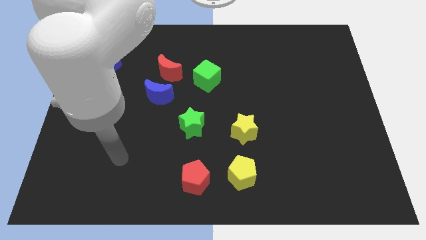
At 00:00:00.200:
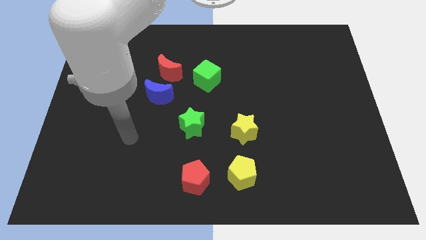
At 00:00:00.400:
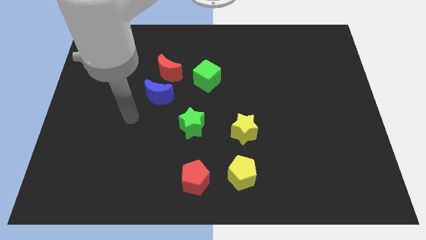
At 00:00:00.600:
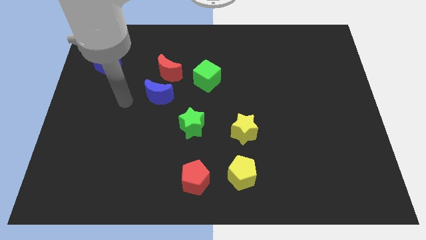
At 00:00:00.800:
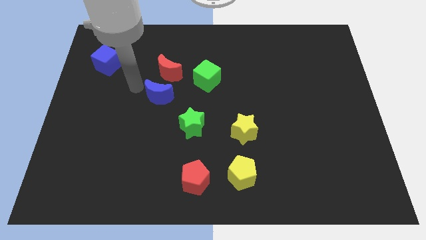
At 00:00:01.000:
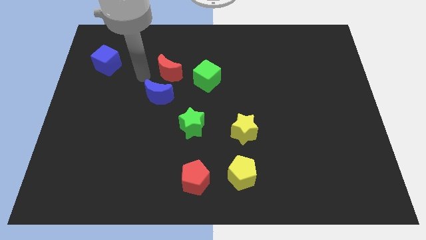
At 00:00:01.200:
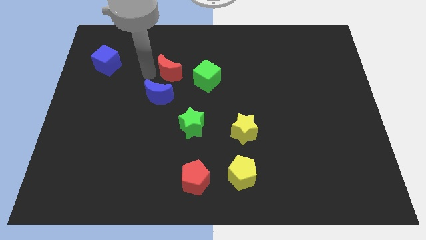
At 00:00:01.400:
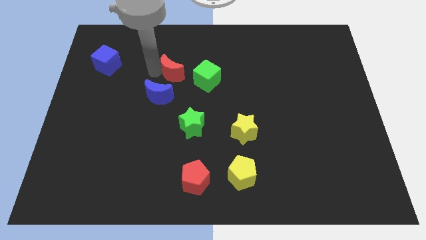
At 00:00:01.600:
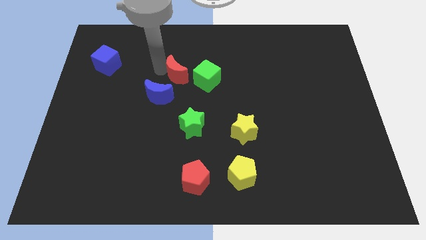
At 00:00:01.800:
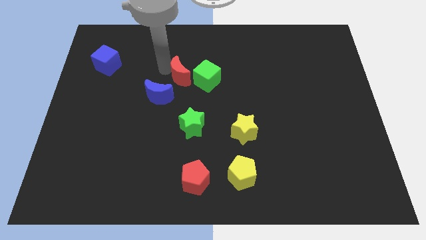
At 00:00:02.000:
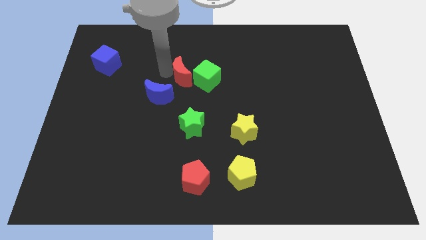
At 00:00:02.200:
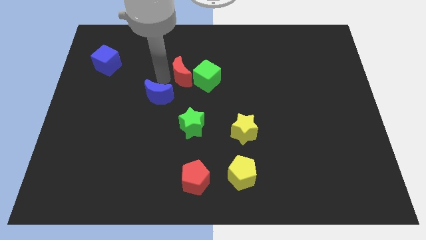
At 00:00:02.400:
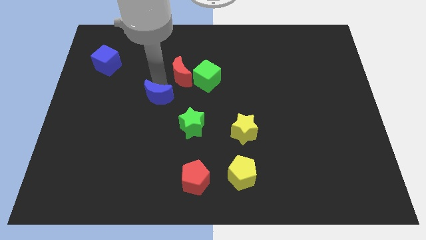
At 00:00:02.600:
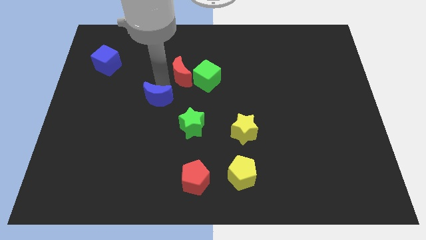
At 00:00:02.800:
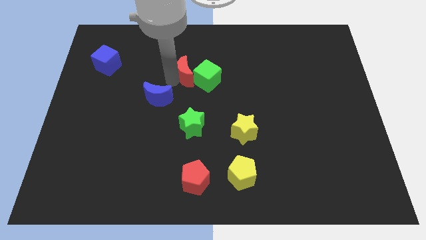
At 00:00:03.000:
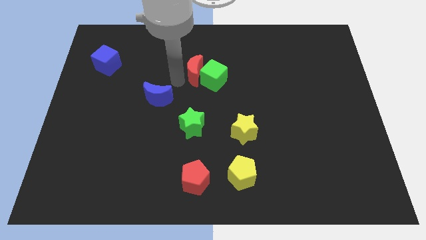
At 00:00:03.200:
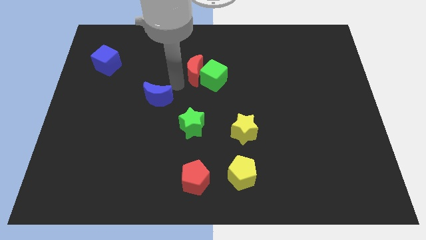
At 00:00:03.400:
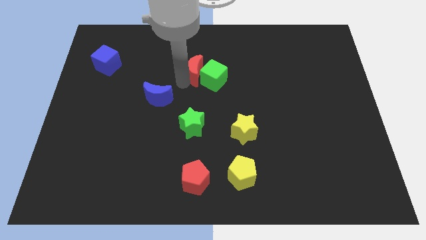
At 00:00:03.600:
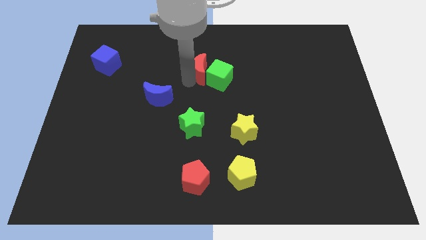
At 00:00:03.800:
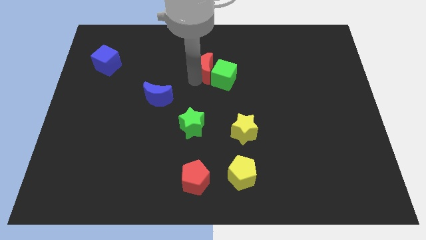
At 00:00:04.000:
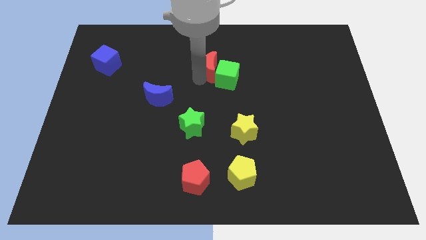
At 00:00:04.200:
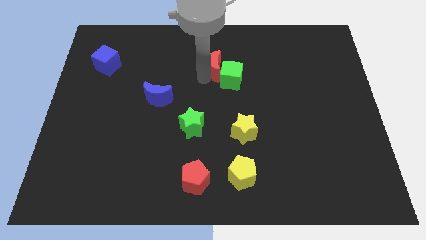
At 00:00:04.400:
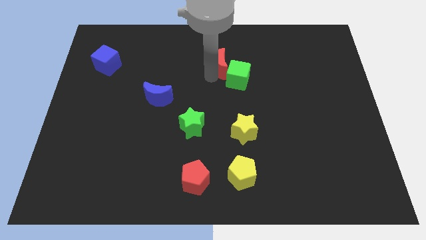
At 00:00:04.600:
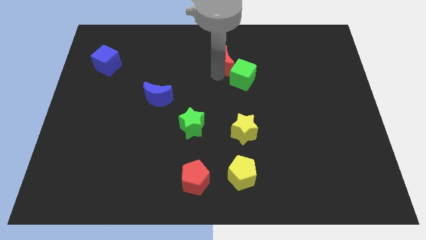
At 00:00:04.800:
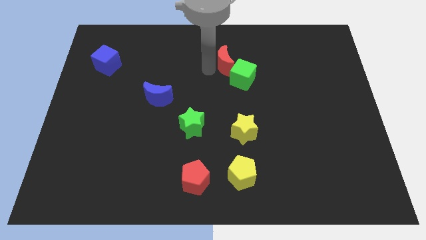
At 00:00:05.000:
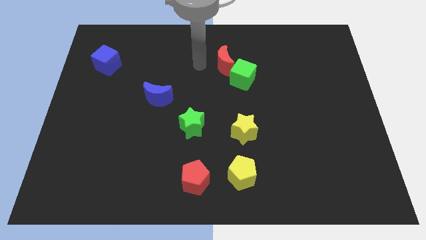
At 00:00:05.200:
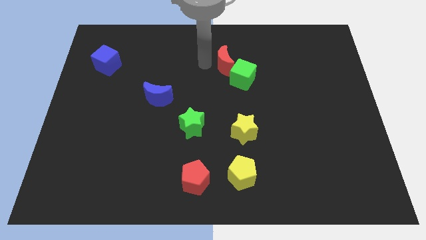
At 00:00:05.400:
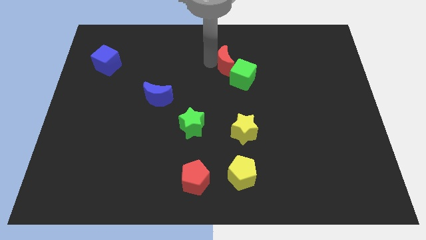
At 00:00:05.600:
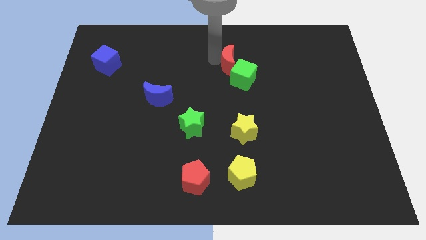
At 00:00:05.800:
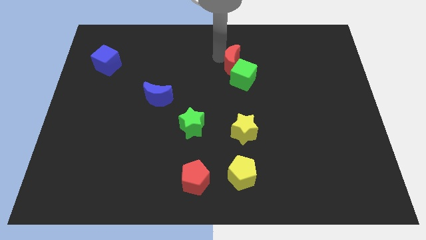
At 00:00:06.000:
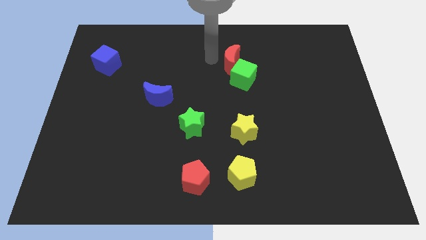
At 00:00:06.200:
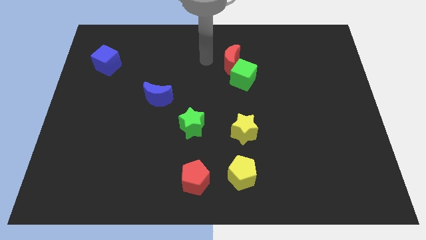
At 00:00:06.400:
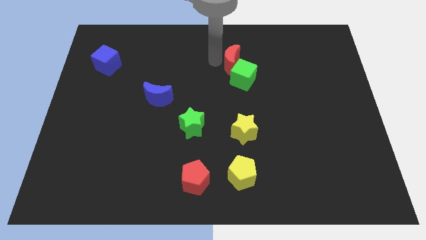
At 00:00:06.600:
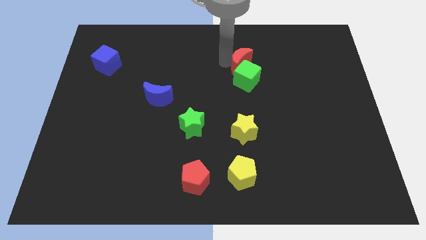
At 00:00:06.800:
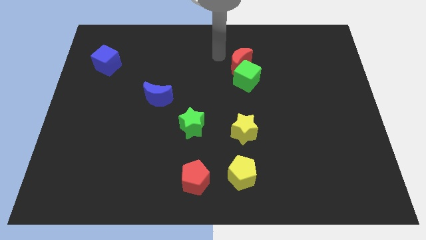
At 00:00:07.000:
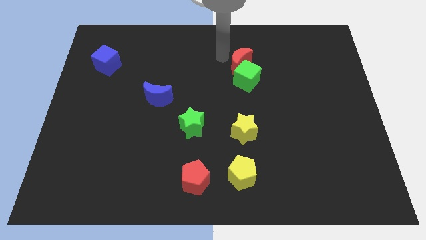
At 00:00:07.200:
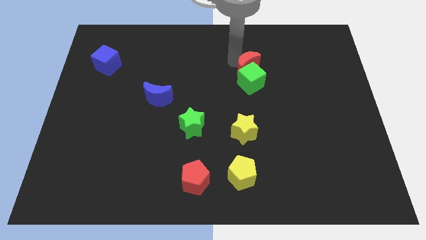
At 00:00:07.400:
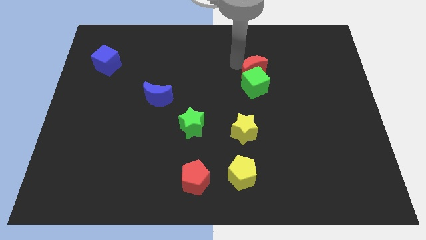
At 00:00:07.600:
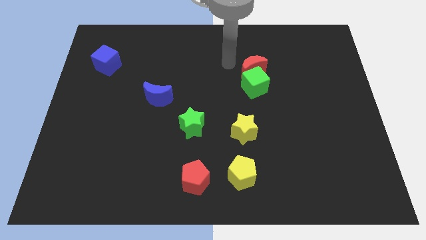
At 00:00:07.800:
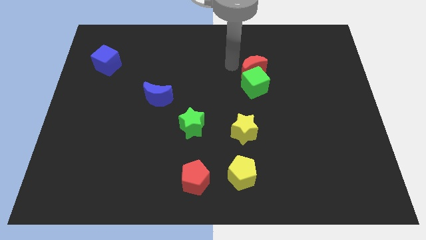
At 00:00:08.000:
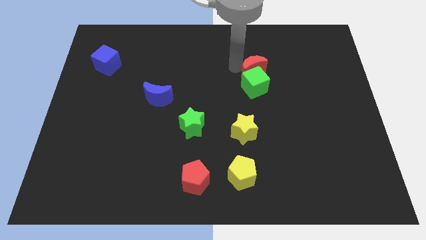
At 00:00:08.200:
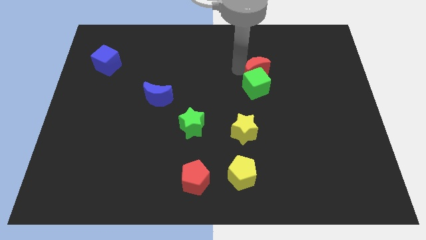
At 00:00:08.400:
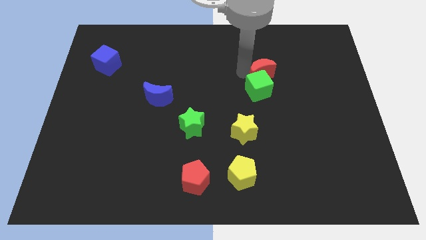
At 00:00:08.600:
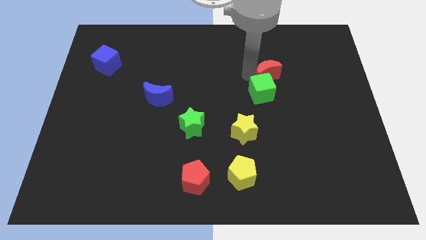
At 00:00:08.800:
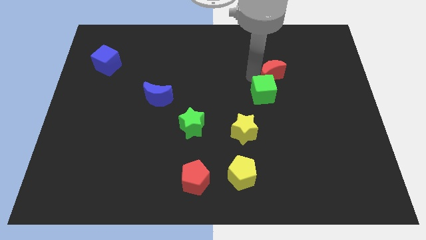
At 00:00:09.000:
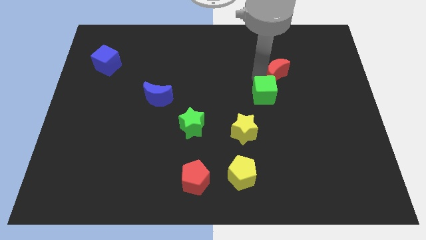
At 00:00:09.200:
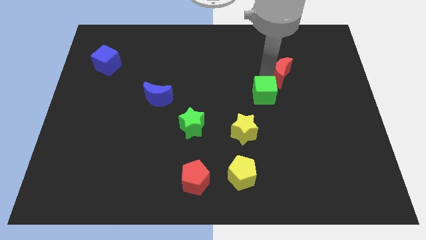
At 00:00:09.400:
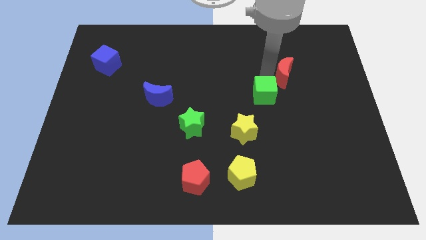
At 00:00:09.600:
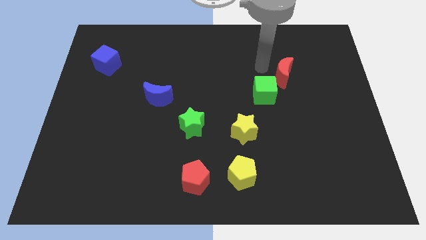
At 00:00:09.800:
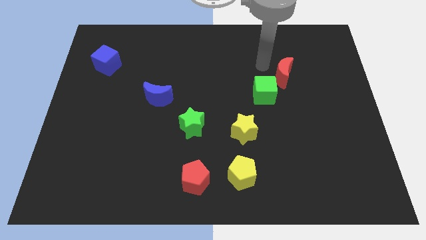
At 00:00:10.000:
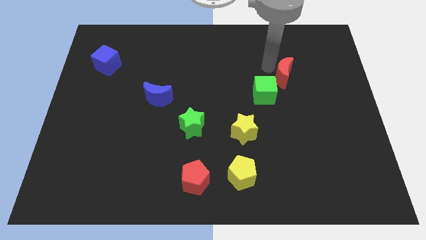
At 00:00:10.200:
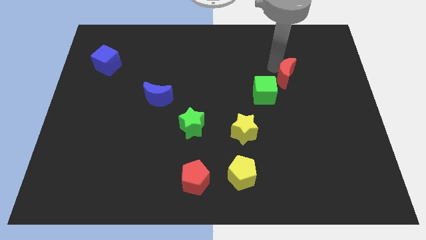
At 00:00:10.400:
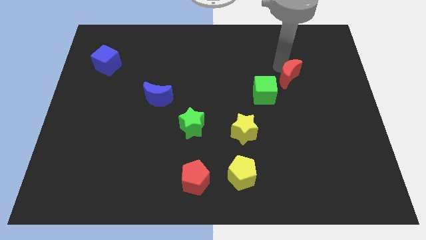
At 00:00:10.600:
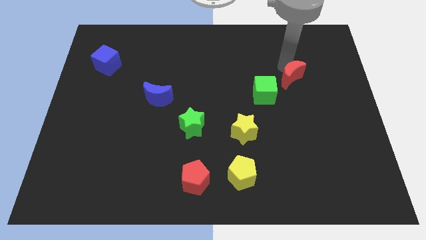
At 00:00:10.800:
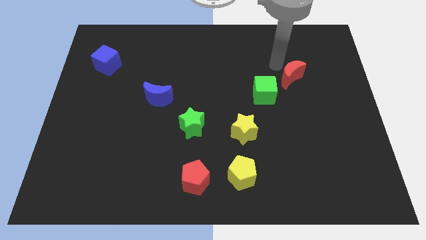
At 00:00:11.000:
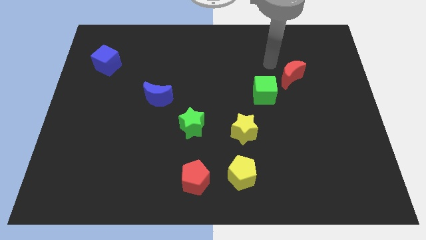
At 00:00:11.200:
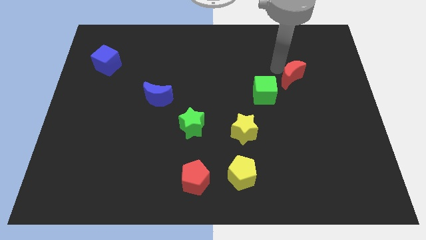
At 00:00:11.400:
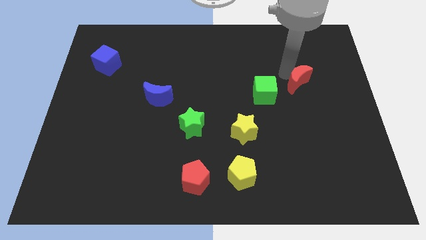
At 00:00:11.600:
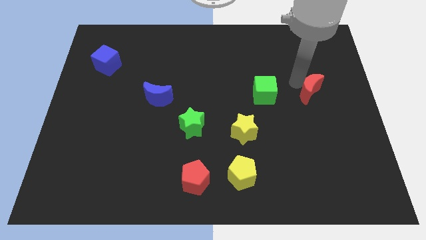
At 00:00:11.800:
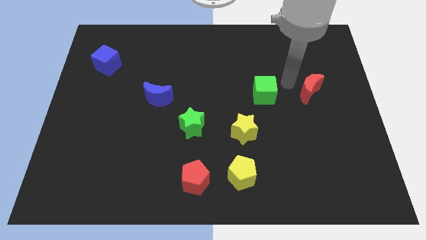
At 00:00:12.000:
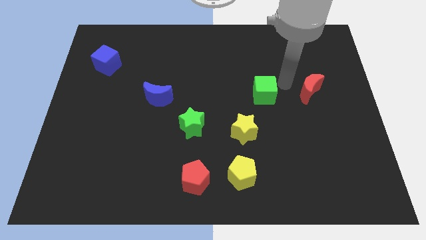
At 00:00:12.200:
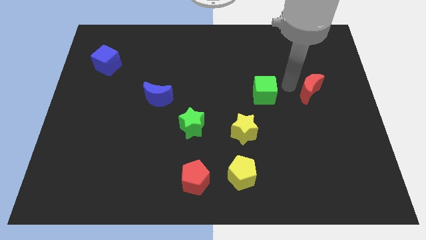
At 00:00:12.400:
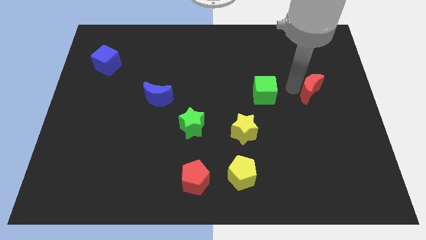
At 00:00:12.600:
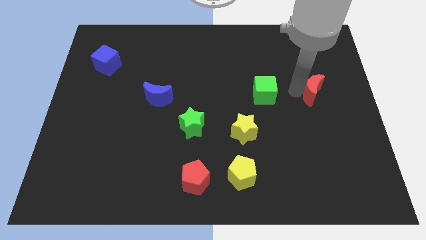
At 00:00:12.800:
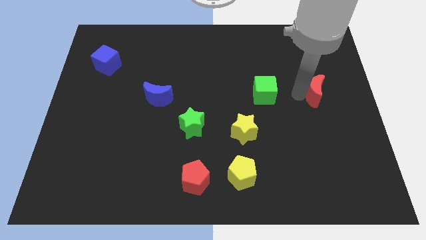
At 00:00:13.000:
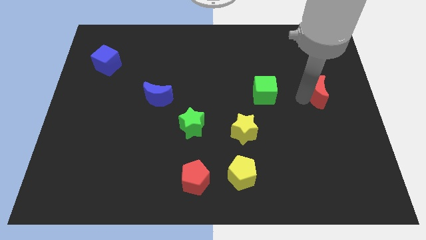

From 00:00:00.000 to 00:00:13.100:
put the red moon to the center right

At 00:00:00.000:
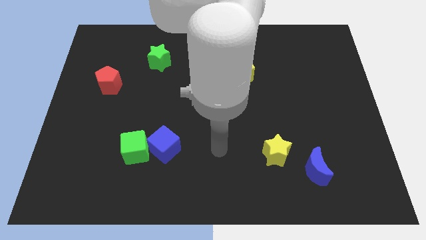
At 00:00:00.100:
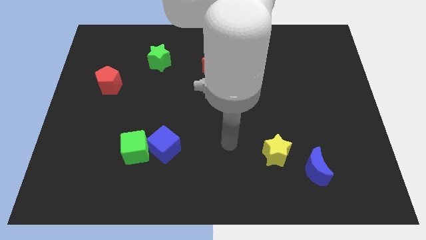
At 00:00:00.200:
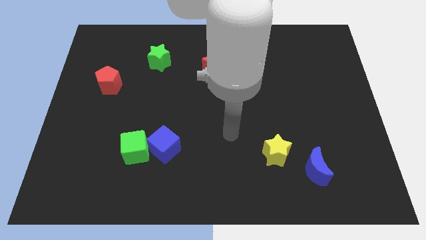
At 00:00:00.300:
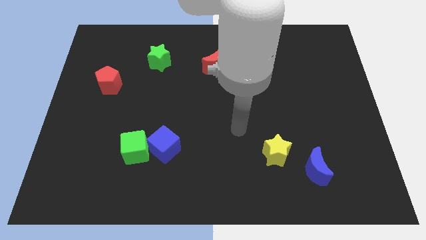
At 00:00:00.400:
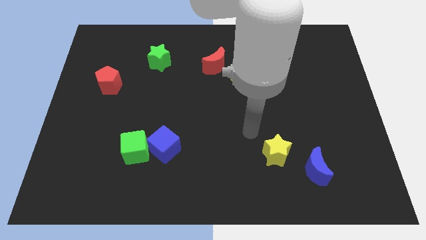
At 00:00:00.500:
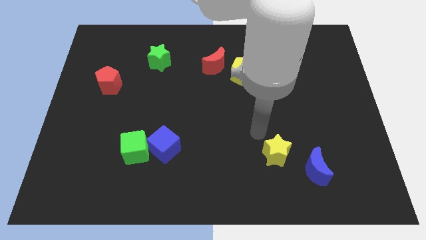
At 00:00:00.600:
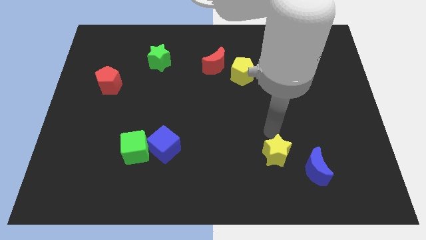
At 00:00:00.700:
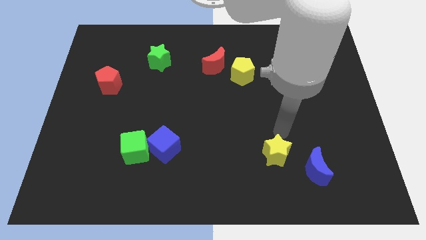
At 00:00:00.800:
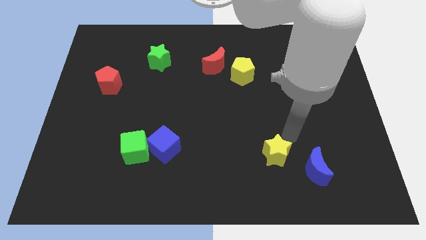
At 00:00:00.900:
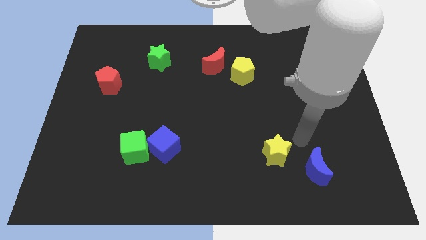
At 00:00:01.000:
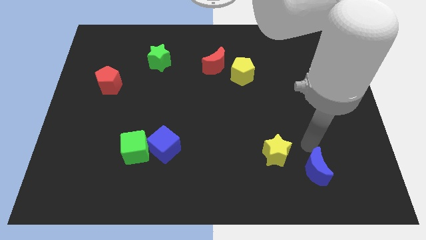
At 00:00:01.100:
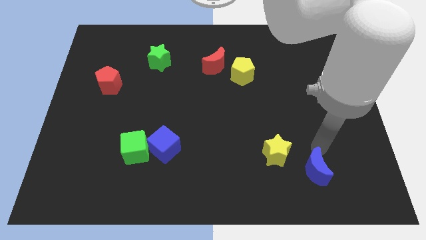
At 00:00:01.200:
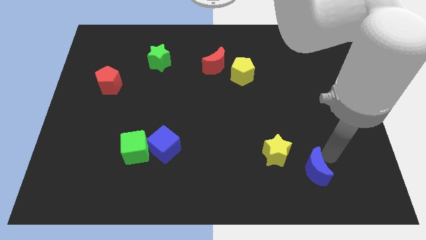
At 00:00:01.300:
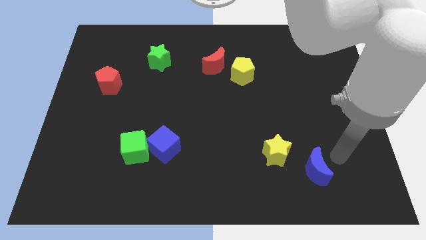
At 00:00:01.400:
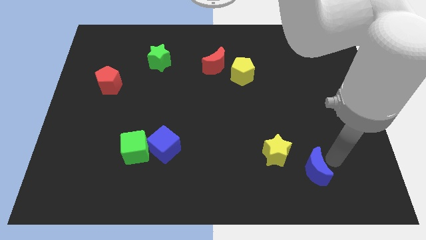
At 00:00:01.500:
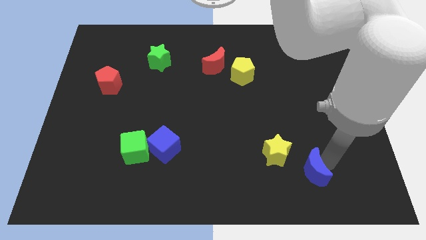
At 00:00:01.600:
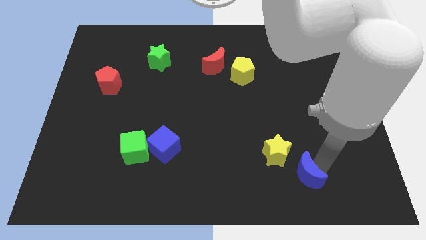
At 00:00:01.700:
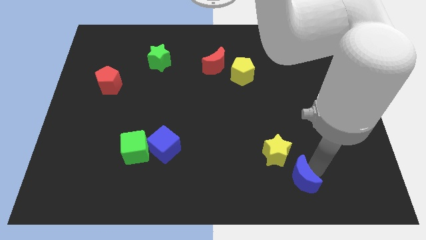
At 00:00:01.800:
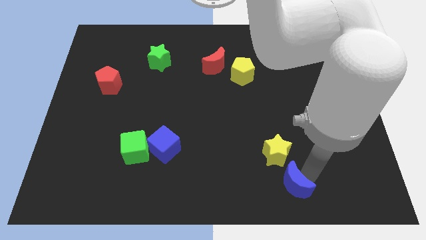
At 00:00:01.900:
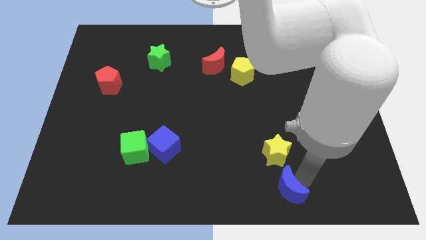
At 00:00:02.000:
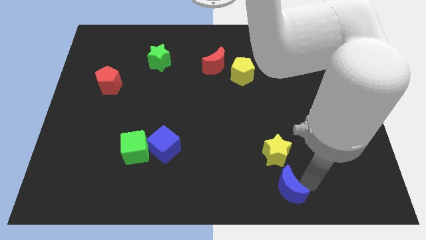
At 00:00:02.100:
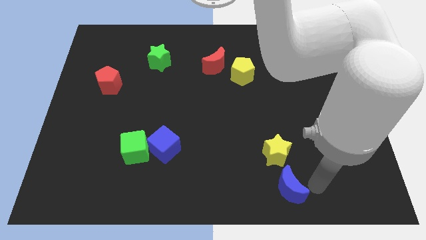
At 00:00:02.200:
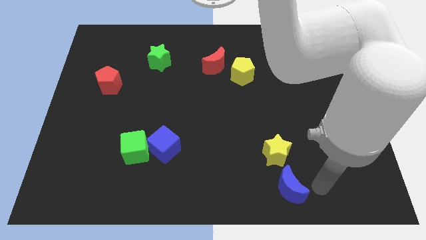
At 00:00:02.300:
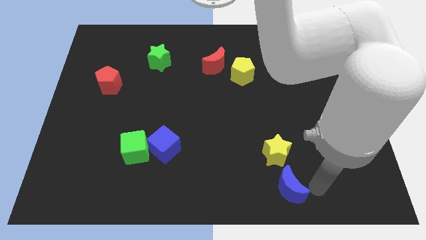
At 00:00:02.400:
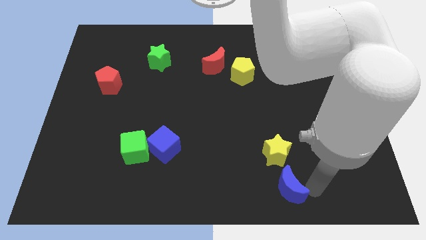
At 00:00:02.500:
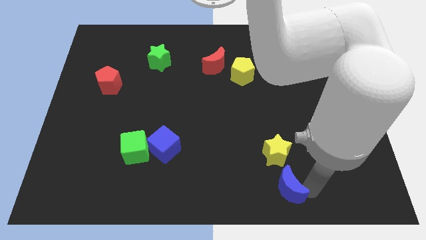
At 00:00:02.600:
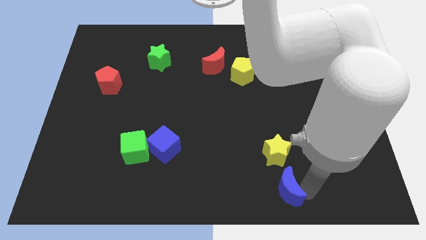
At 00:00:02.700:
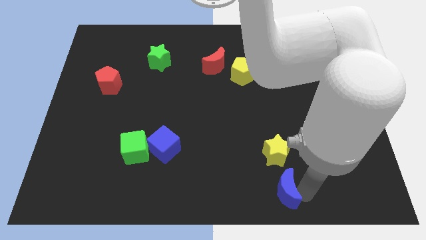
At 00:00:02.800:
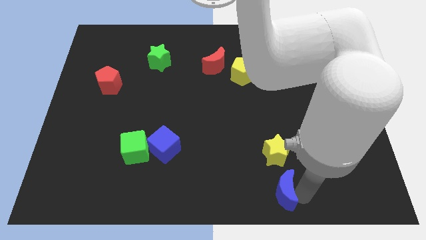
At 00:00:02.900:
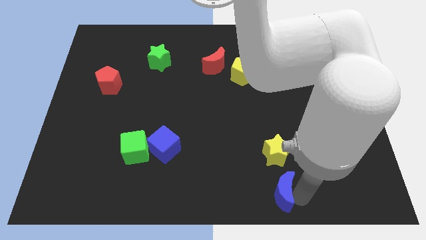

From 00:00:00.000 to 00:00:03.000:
push the blue moon to the bottom
